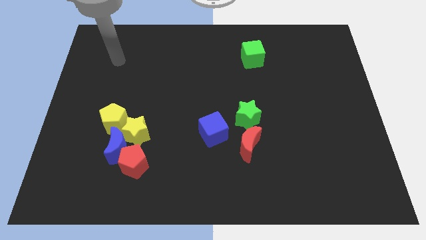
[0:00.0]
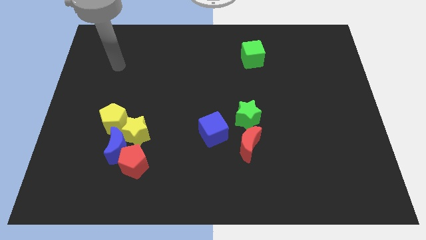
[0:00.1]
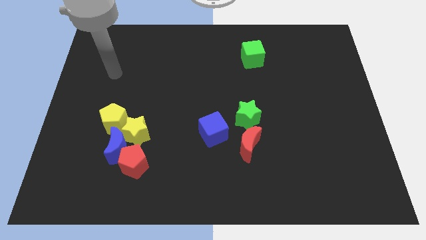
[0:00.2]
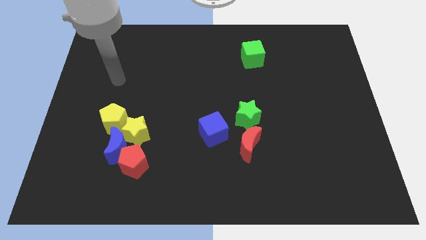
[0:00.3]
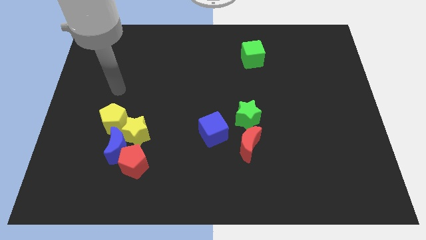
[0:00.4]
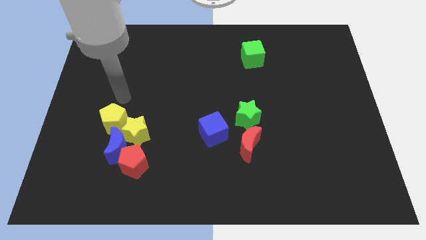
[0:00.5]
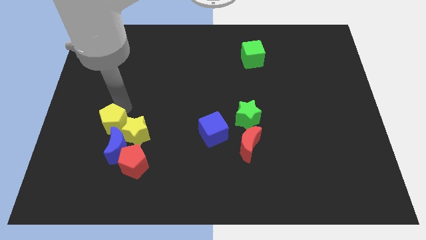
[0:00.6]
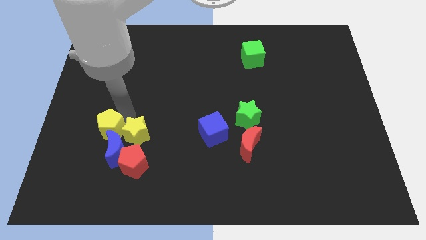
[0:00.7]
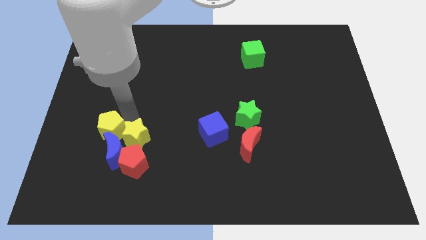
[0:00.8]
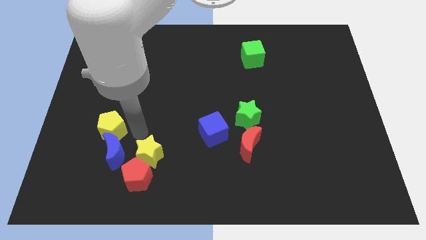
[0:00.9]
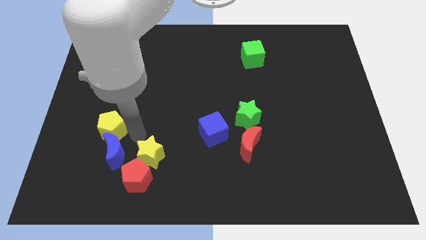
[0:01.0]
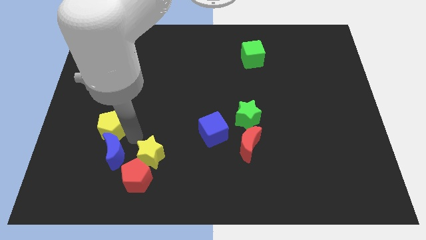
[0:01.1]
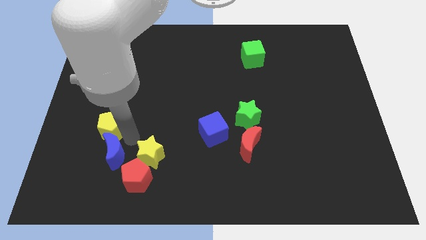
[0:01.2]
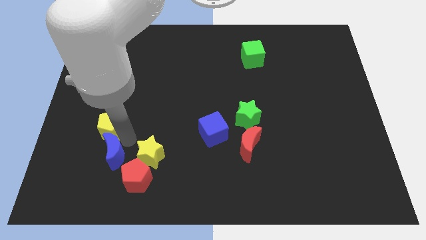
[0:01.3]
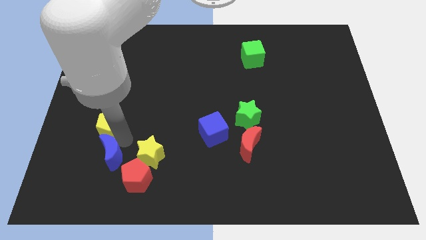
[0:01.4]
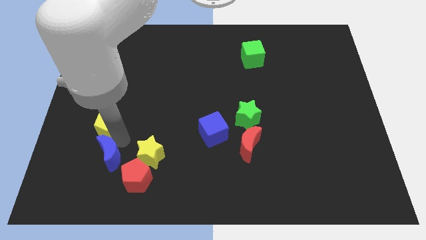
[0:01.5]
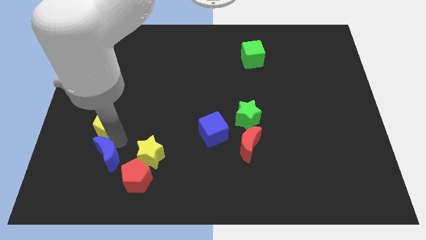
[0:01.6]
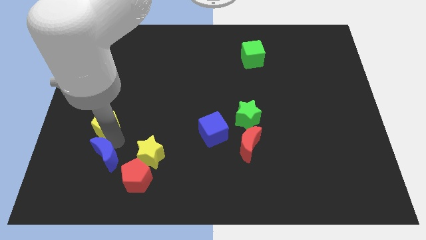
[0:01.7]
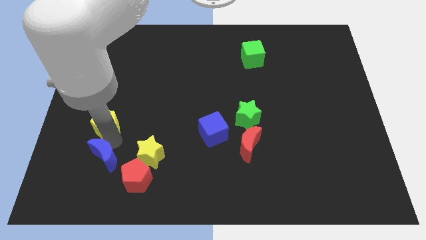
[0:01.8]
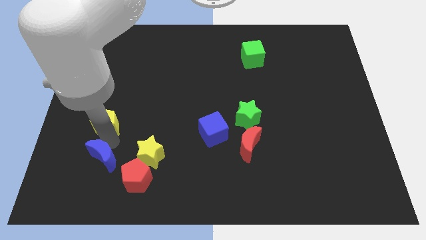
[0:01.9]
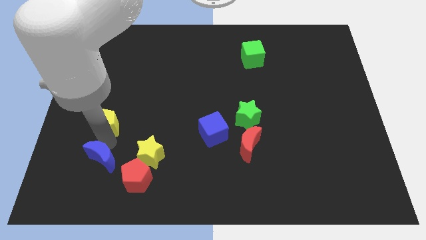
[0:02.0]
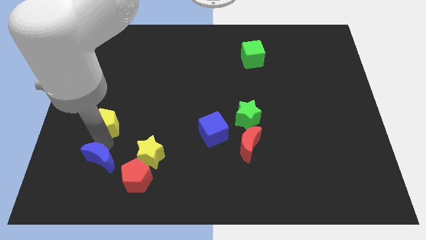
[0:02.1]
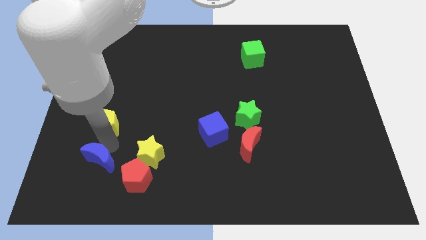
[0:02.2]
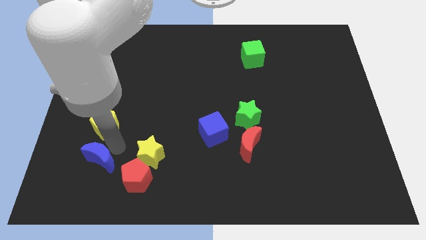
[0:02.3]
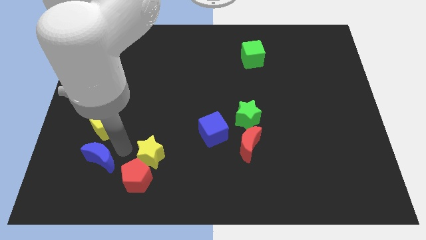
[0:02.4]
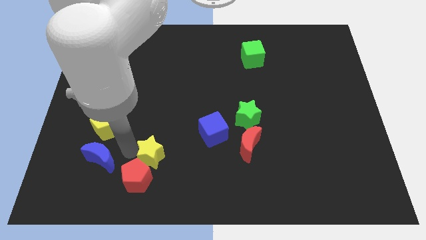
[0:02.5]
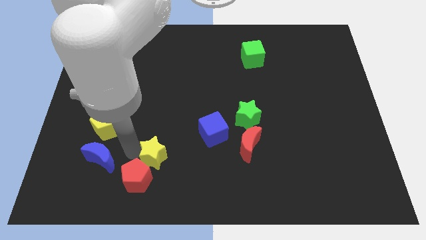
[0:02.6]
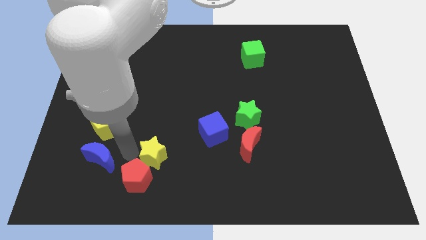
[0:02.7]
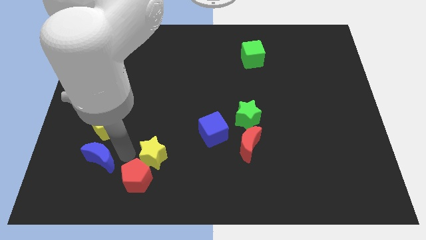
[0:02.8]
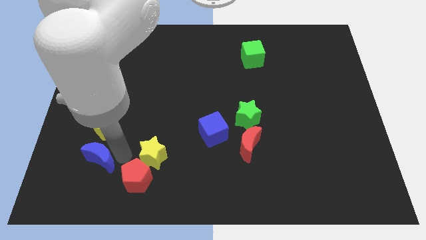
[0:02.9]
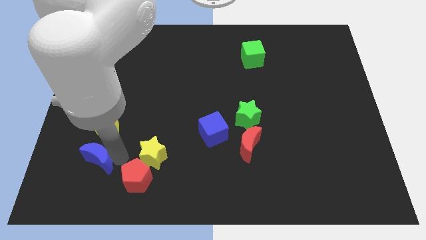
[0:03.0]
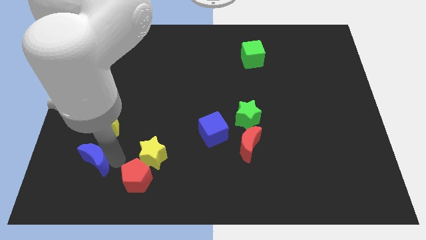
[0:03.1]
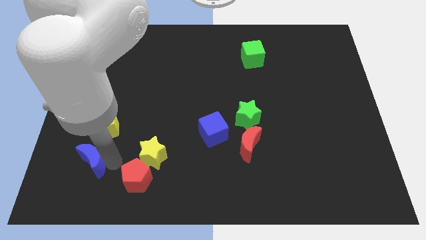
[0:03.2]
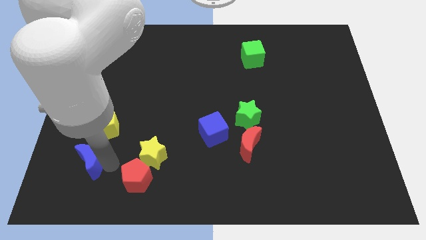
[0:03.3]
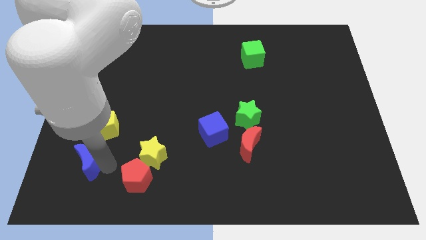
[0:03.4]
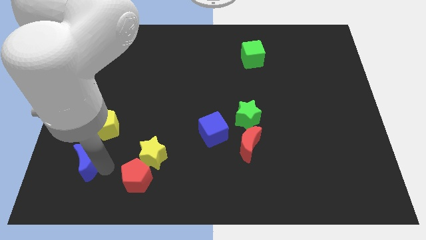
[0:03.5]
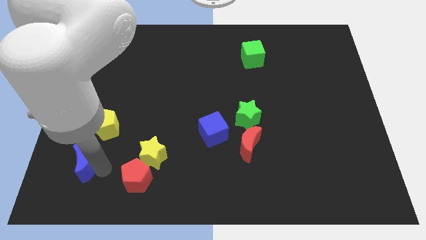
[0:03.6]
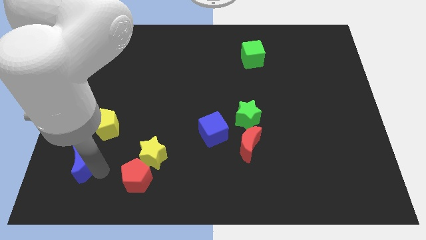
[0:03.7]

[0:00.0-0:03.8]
move the blue moon away from the group of blocks

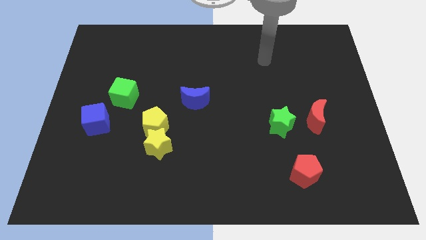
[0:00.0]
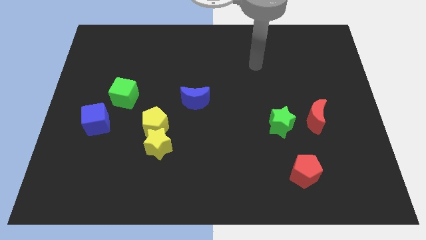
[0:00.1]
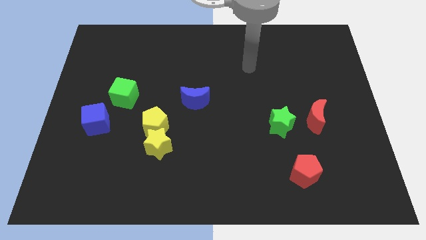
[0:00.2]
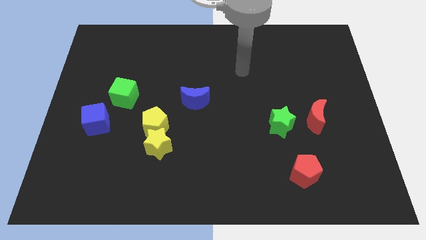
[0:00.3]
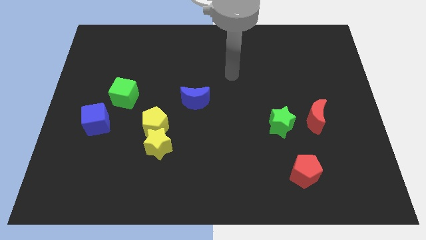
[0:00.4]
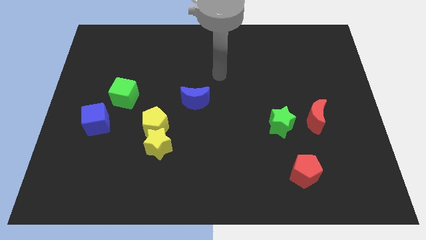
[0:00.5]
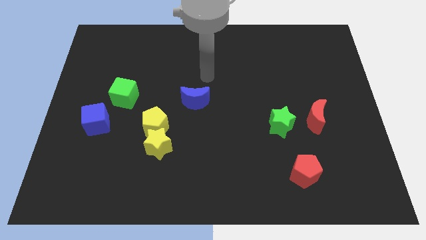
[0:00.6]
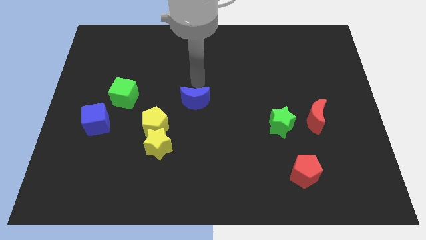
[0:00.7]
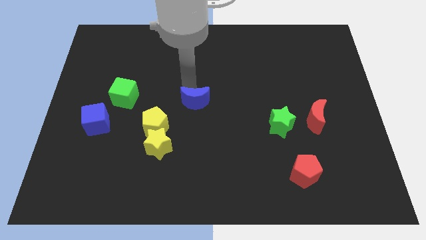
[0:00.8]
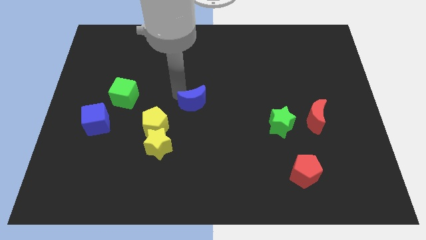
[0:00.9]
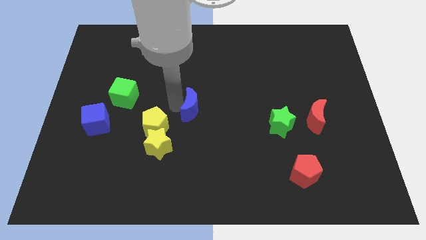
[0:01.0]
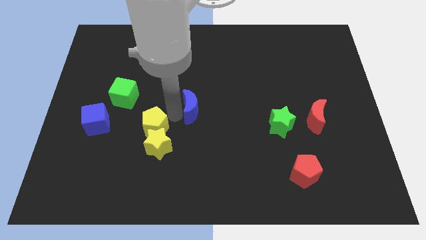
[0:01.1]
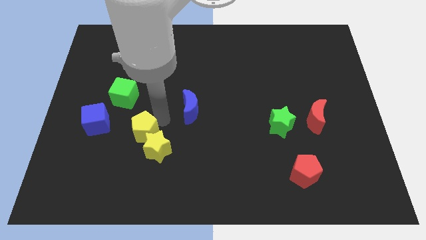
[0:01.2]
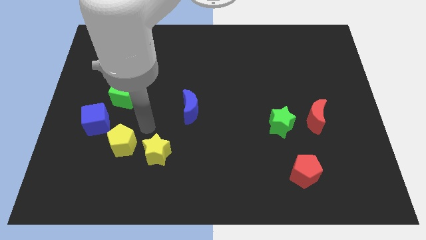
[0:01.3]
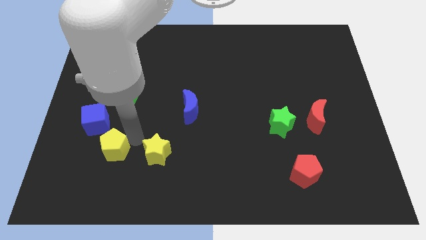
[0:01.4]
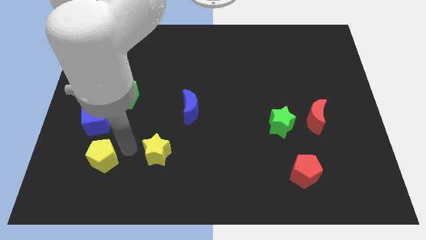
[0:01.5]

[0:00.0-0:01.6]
pull the yellow star apart from the yellow pentagon

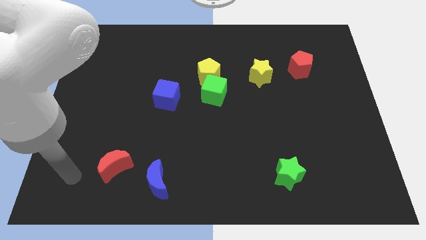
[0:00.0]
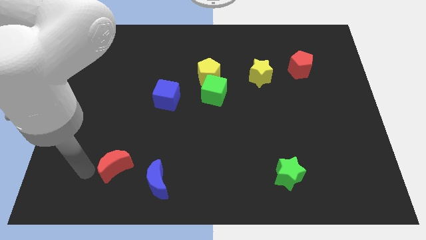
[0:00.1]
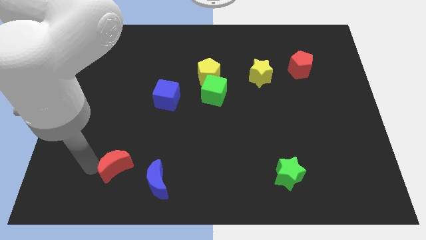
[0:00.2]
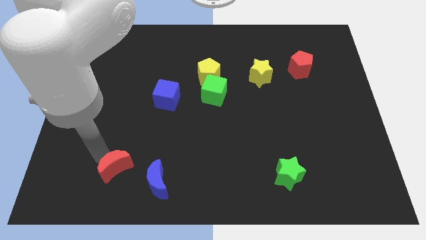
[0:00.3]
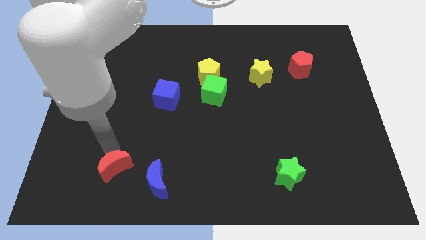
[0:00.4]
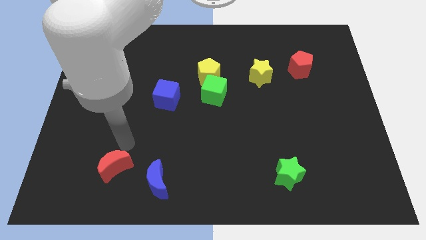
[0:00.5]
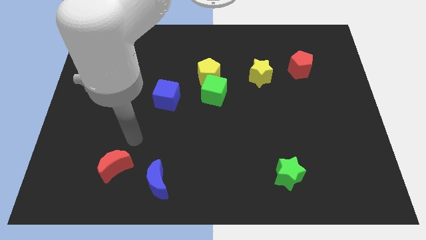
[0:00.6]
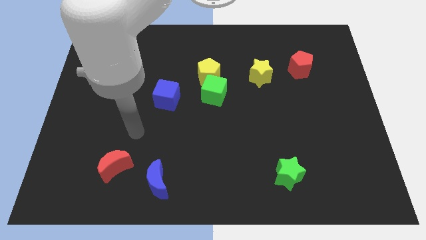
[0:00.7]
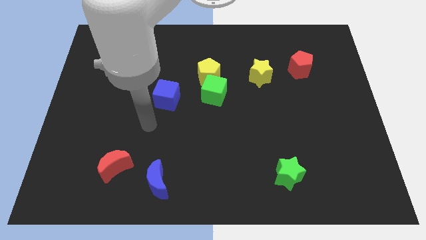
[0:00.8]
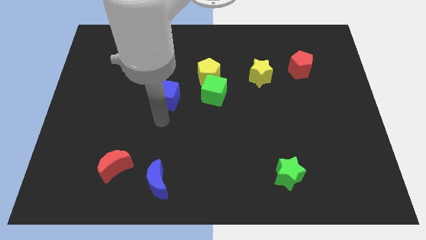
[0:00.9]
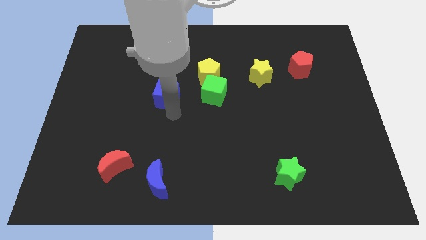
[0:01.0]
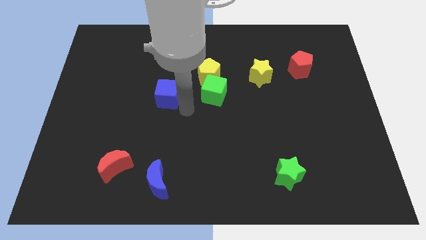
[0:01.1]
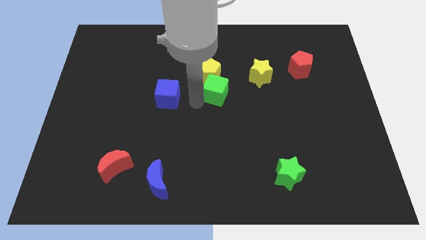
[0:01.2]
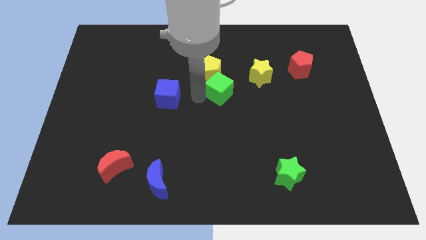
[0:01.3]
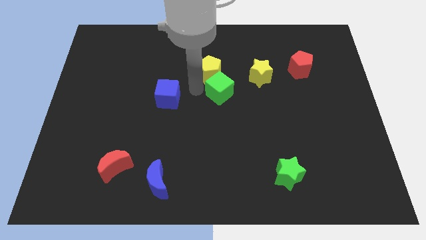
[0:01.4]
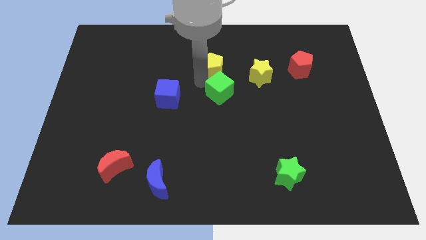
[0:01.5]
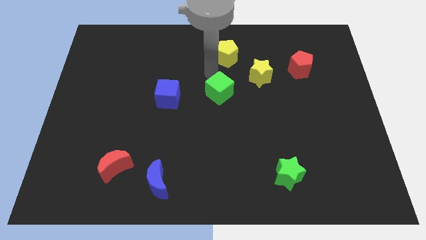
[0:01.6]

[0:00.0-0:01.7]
pull the green cube apart from the yellow pentagon

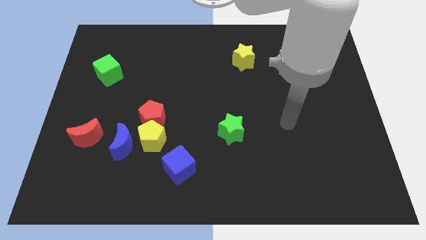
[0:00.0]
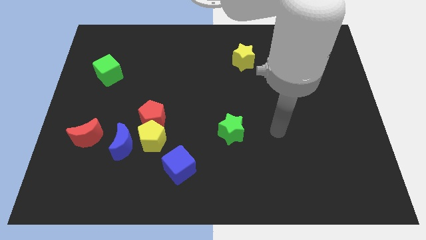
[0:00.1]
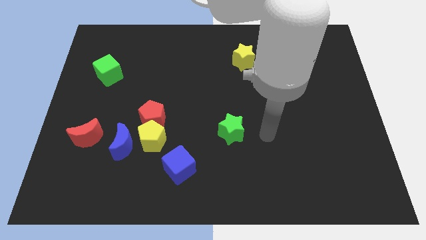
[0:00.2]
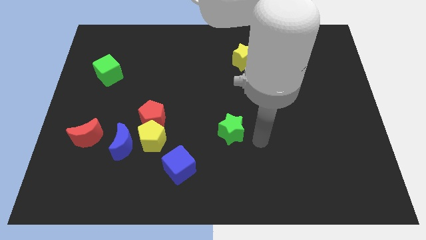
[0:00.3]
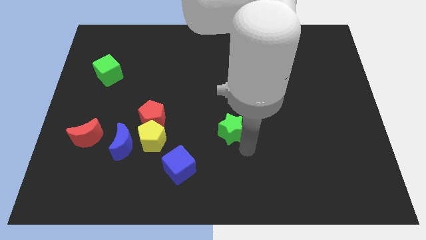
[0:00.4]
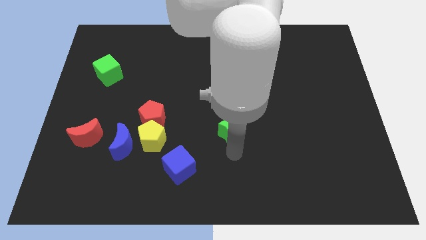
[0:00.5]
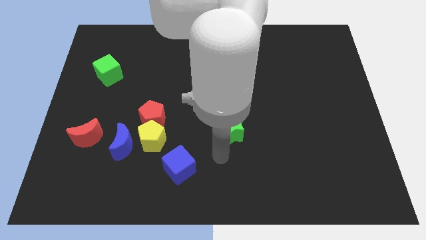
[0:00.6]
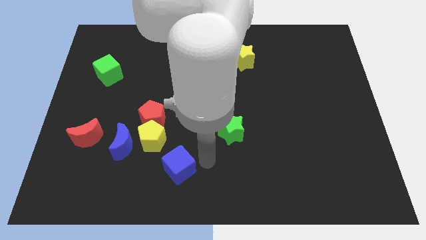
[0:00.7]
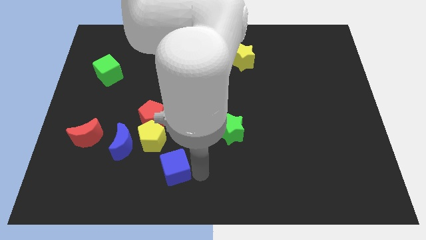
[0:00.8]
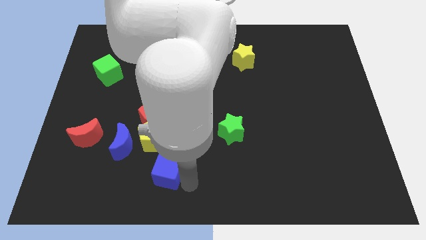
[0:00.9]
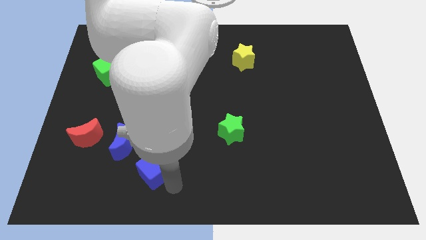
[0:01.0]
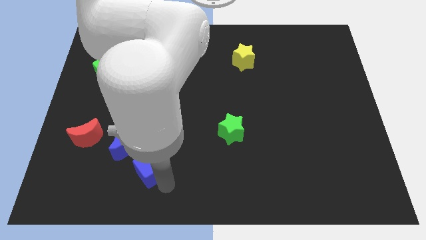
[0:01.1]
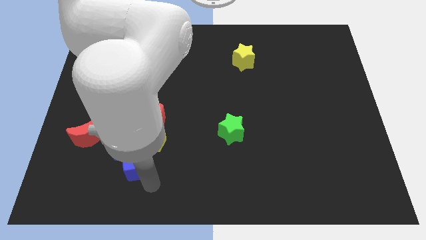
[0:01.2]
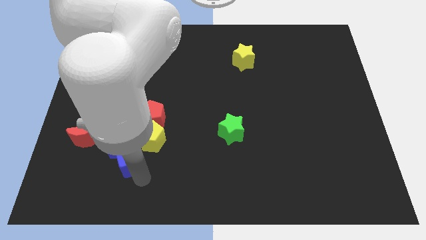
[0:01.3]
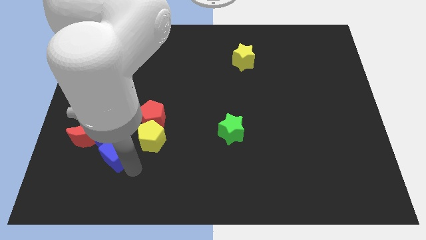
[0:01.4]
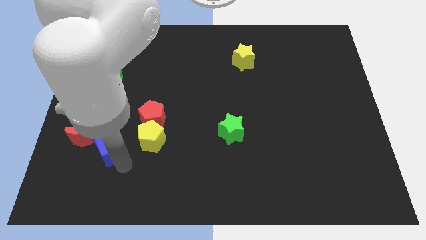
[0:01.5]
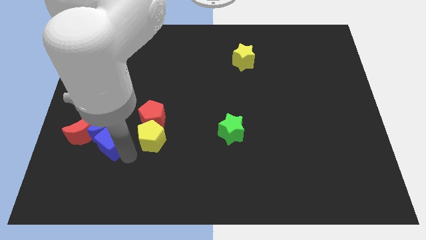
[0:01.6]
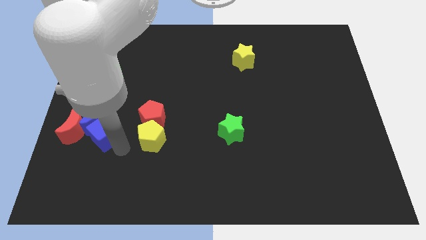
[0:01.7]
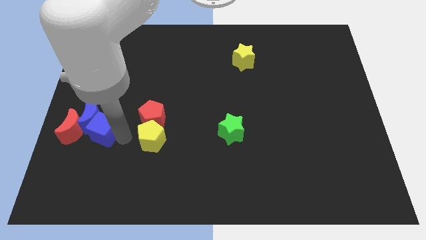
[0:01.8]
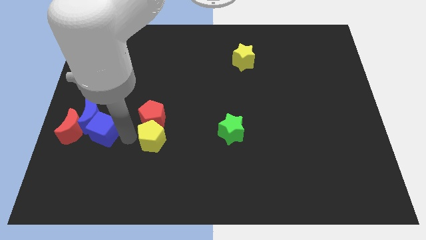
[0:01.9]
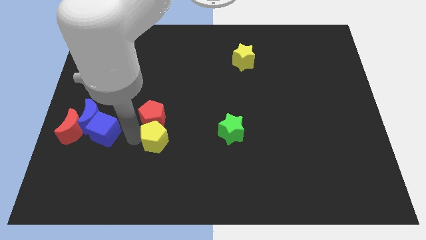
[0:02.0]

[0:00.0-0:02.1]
pull the yellow pentagon apart from the red pentagon, blue moon, and blue cube

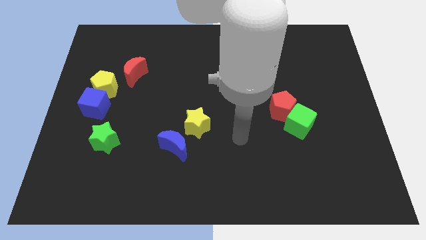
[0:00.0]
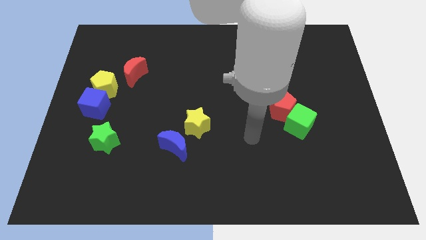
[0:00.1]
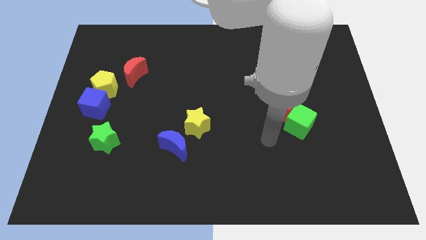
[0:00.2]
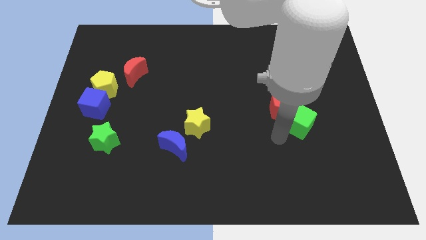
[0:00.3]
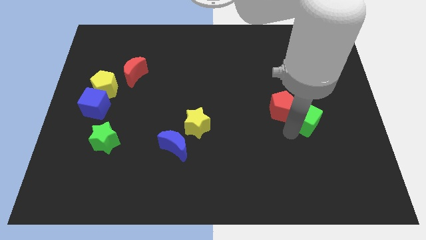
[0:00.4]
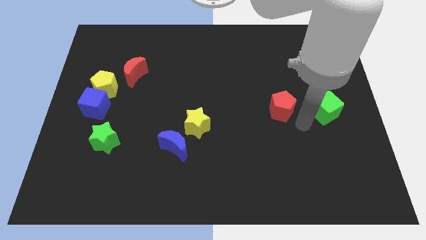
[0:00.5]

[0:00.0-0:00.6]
separate the red pentagon from the green cube
